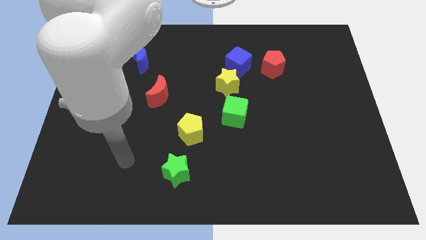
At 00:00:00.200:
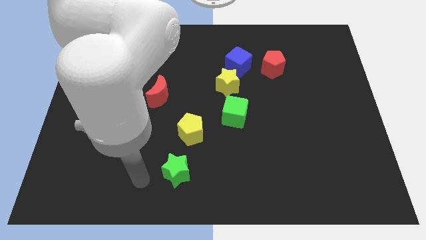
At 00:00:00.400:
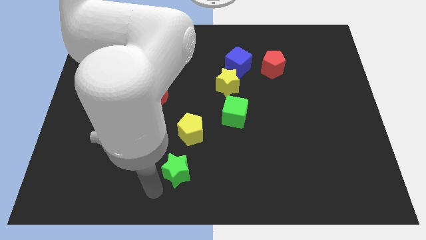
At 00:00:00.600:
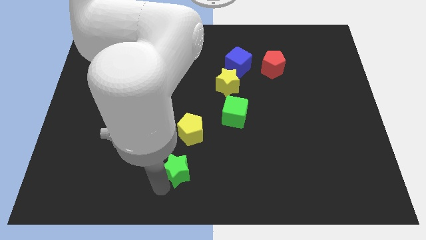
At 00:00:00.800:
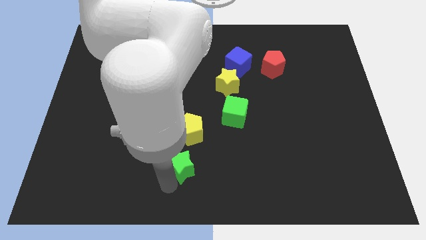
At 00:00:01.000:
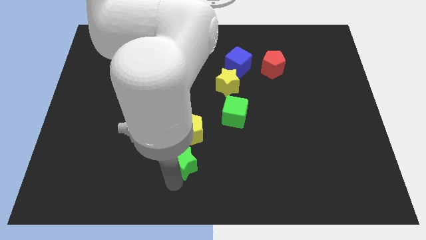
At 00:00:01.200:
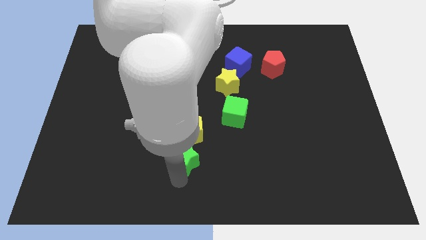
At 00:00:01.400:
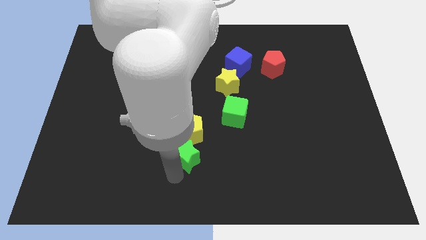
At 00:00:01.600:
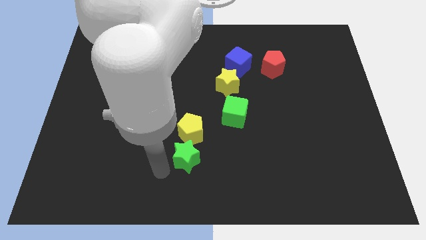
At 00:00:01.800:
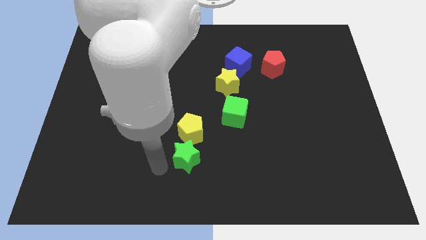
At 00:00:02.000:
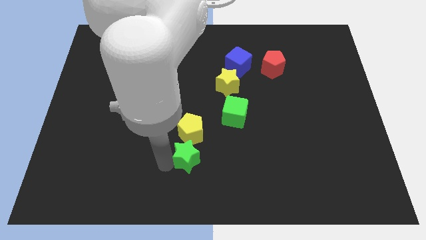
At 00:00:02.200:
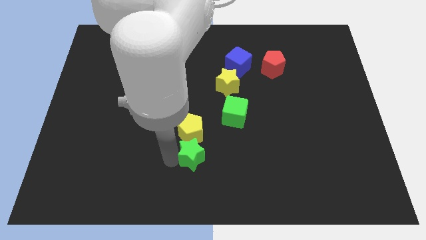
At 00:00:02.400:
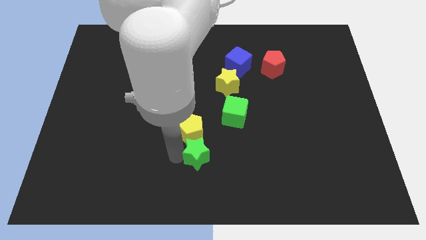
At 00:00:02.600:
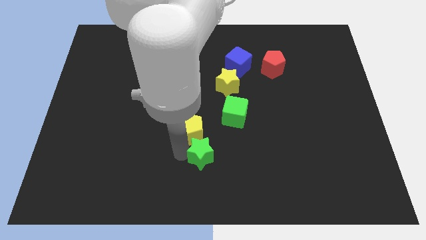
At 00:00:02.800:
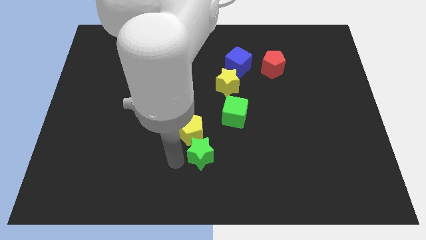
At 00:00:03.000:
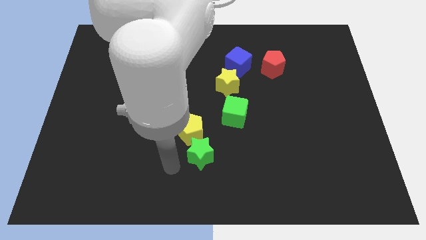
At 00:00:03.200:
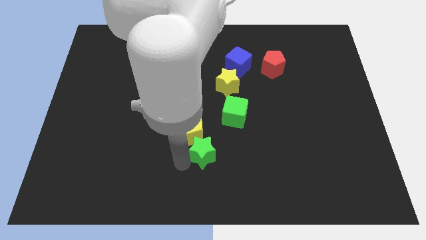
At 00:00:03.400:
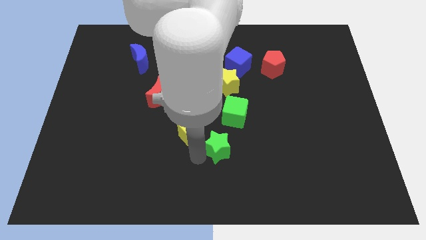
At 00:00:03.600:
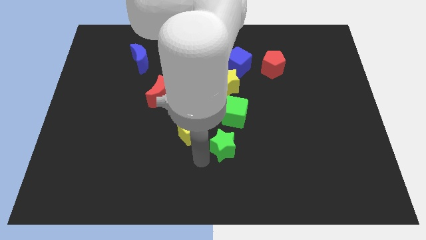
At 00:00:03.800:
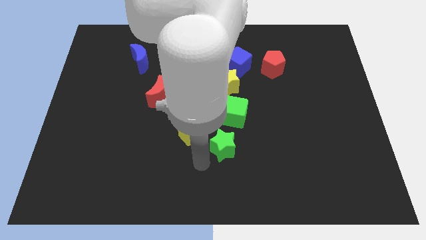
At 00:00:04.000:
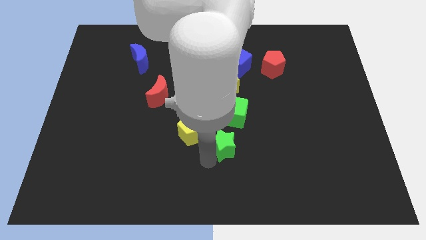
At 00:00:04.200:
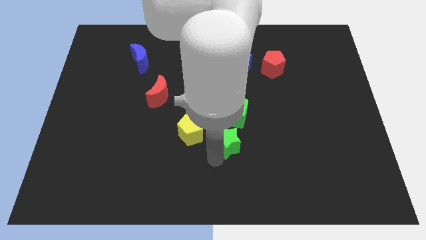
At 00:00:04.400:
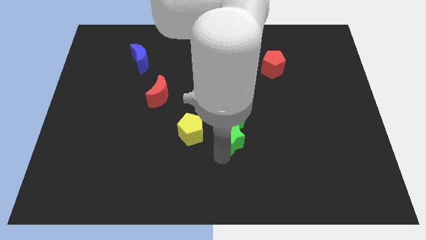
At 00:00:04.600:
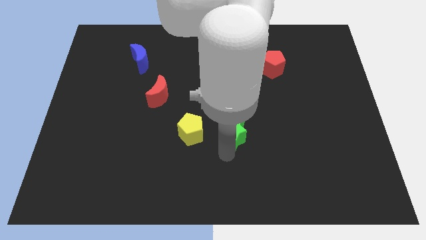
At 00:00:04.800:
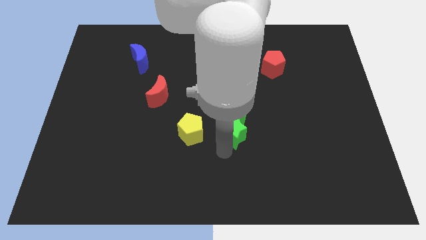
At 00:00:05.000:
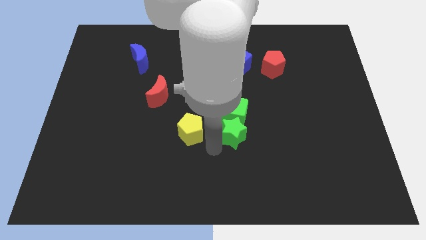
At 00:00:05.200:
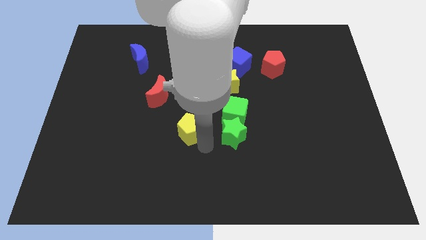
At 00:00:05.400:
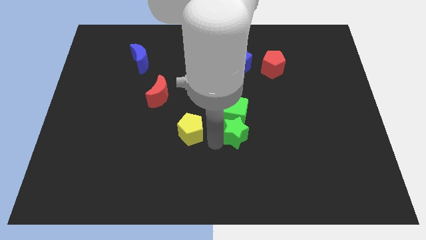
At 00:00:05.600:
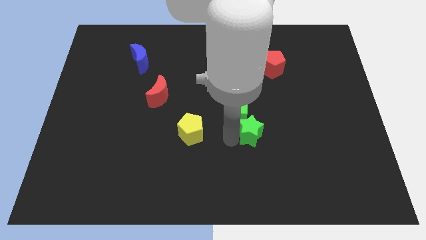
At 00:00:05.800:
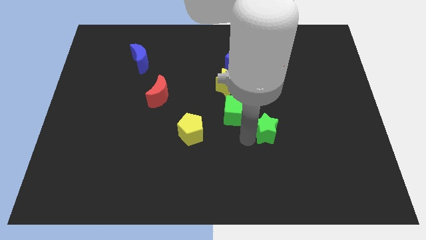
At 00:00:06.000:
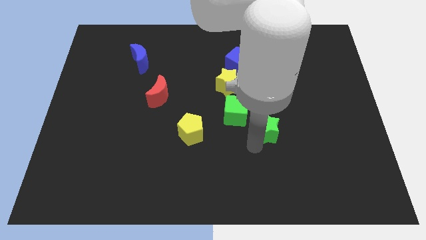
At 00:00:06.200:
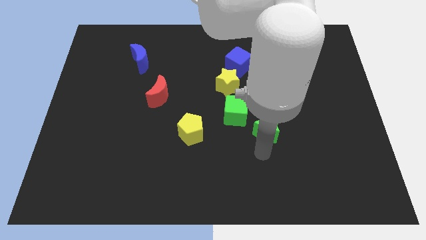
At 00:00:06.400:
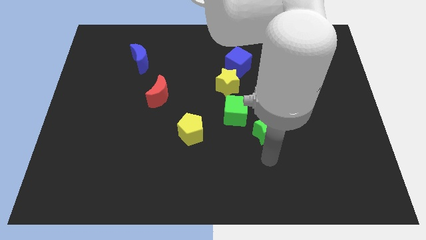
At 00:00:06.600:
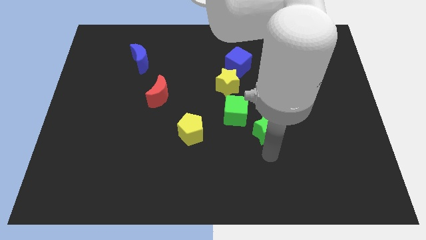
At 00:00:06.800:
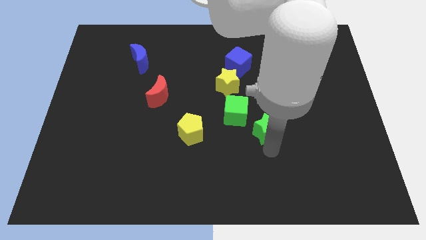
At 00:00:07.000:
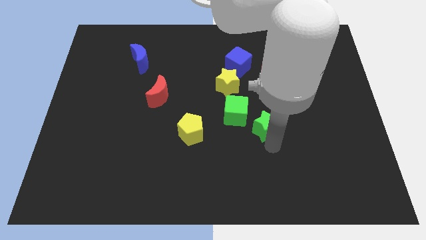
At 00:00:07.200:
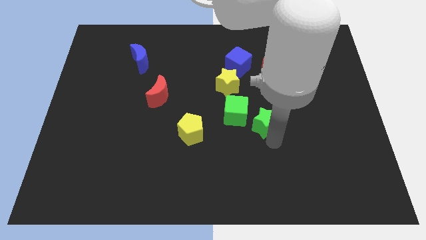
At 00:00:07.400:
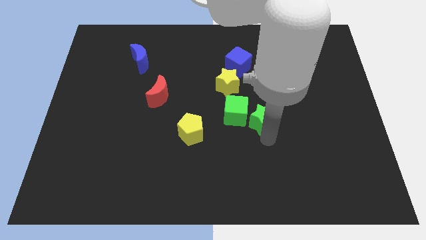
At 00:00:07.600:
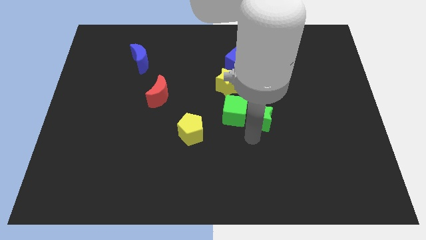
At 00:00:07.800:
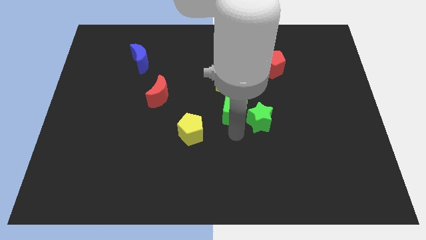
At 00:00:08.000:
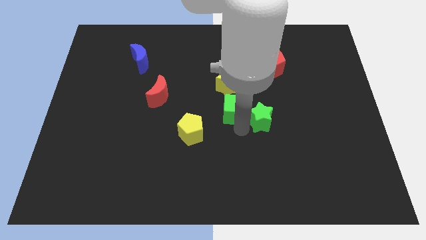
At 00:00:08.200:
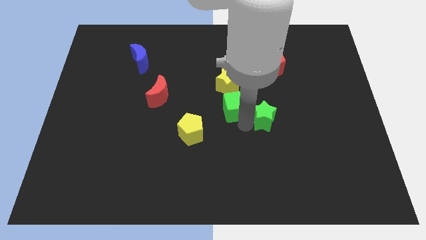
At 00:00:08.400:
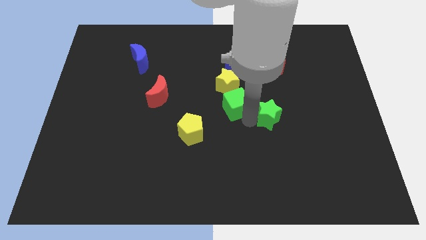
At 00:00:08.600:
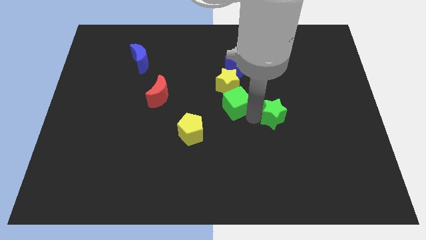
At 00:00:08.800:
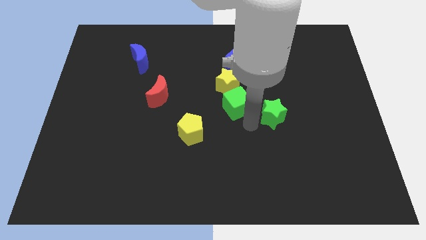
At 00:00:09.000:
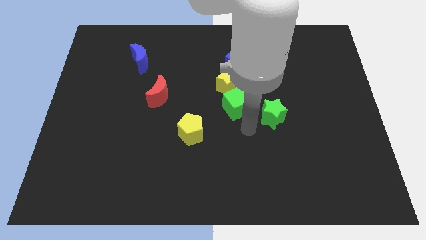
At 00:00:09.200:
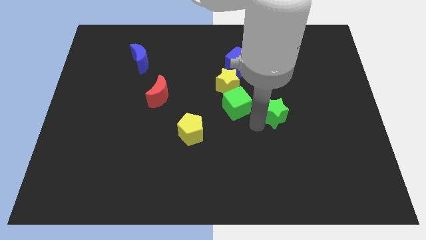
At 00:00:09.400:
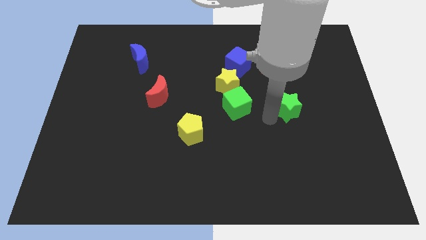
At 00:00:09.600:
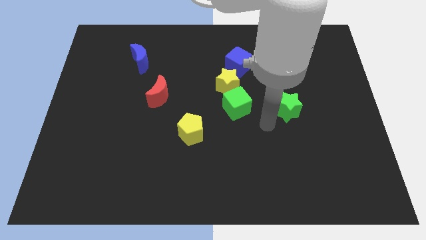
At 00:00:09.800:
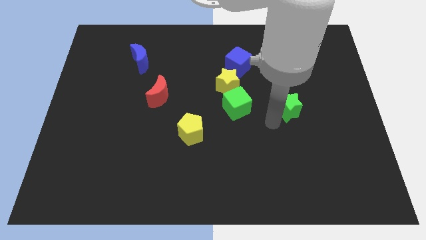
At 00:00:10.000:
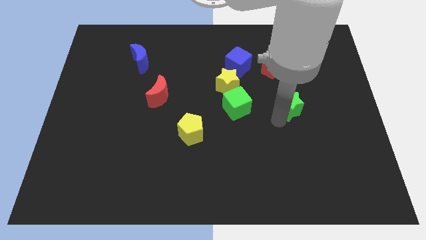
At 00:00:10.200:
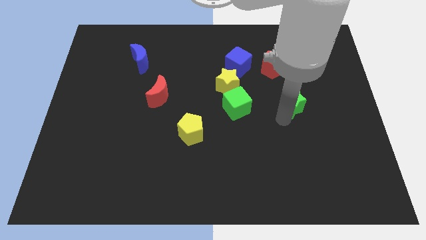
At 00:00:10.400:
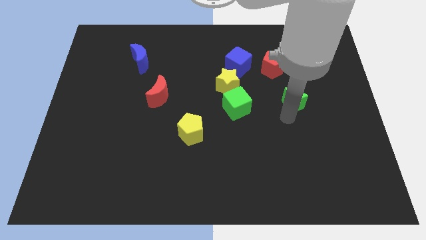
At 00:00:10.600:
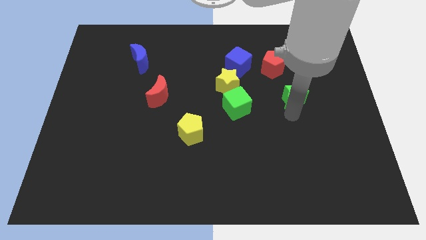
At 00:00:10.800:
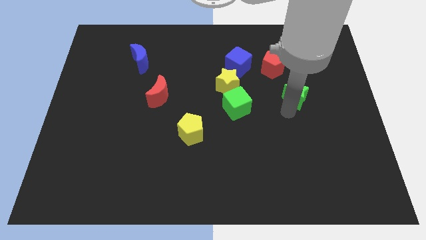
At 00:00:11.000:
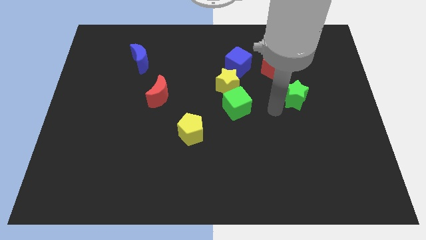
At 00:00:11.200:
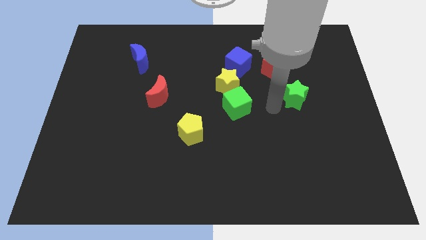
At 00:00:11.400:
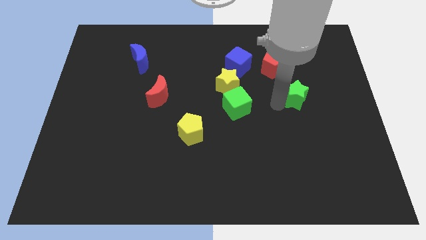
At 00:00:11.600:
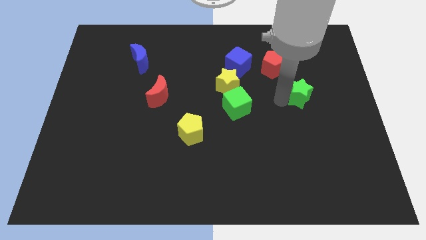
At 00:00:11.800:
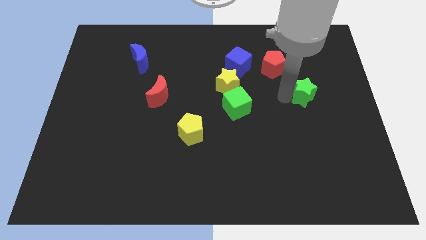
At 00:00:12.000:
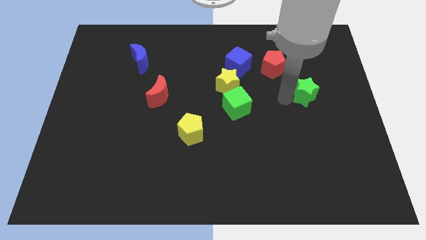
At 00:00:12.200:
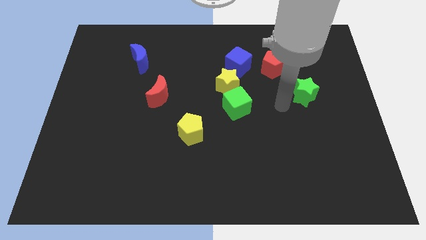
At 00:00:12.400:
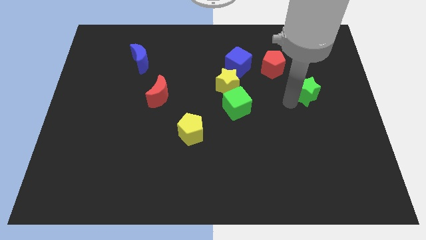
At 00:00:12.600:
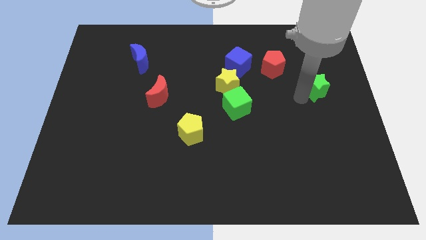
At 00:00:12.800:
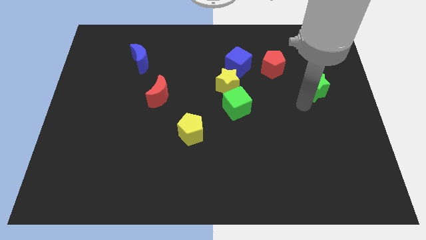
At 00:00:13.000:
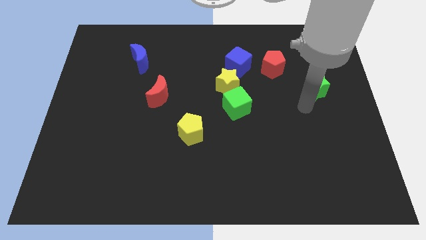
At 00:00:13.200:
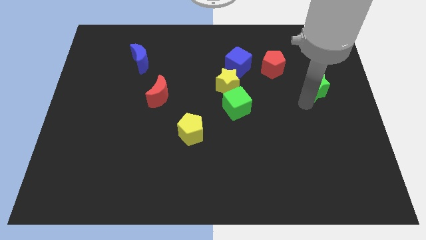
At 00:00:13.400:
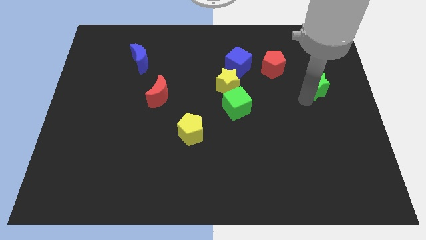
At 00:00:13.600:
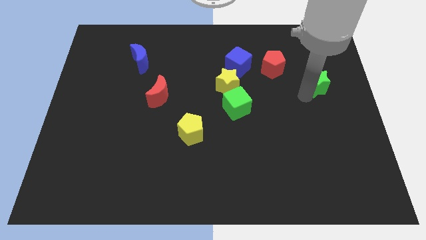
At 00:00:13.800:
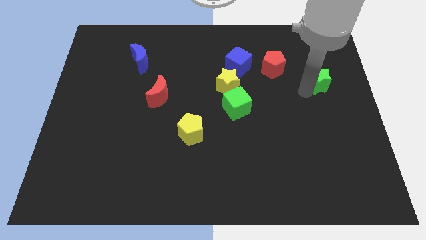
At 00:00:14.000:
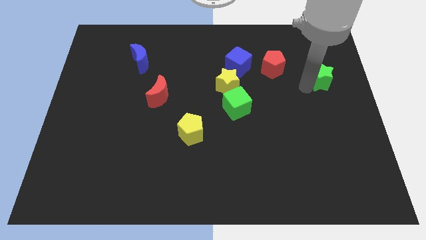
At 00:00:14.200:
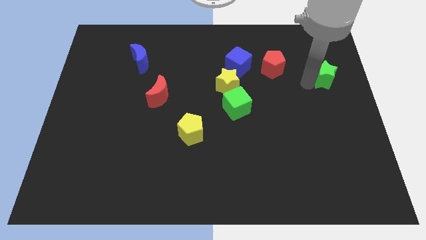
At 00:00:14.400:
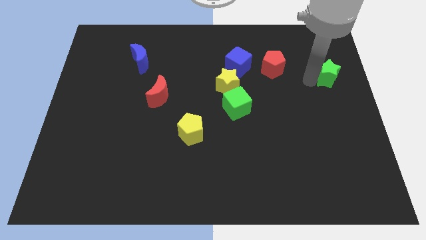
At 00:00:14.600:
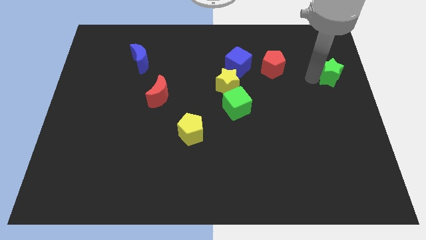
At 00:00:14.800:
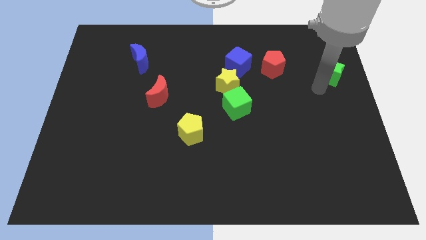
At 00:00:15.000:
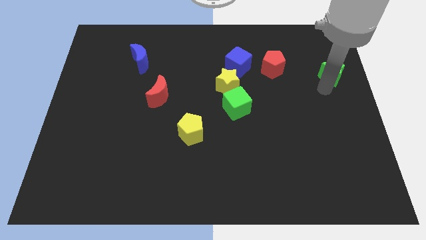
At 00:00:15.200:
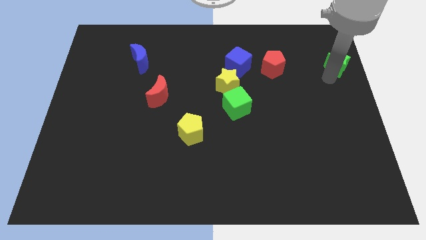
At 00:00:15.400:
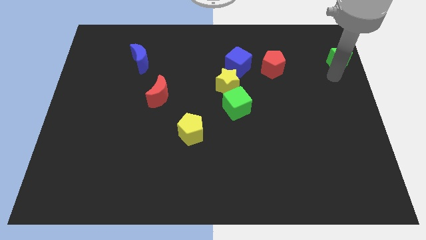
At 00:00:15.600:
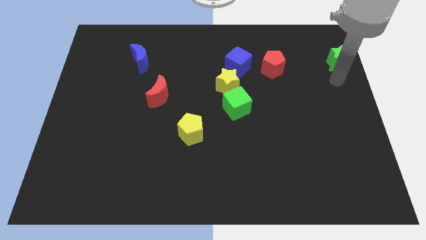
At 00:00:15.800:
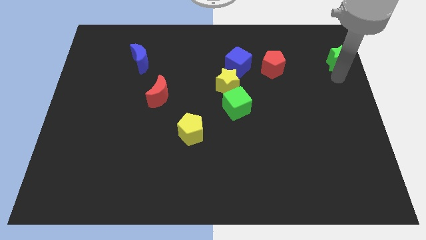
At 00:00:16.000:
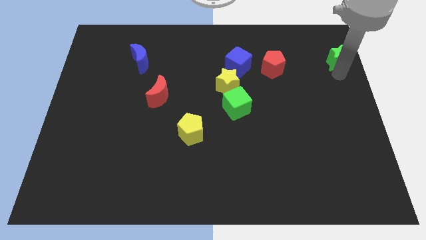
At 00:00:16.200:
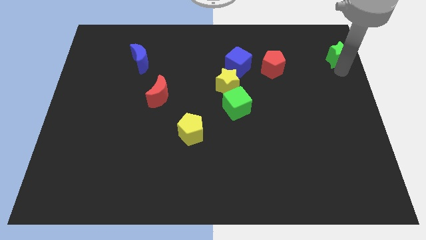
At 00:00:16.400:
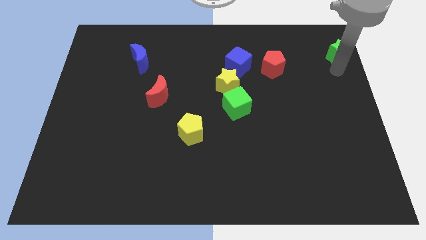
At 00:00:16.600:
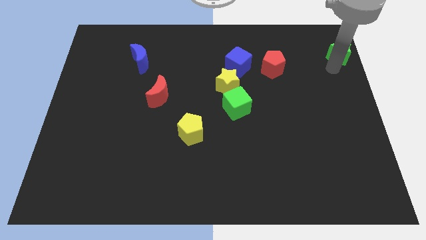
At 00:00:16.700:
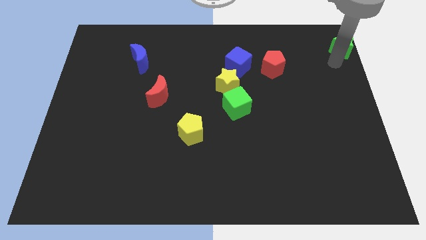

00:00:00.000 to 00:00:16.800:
move the green star to the top right
